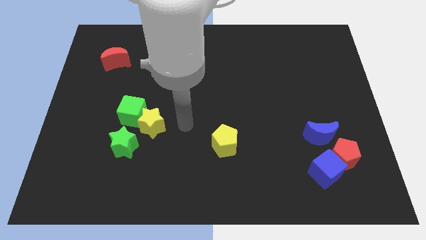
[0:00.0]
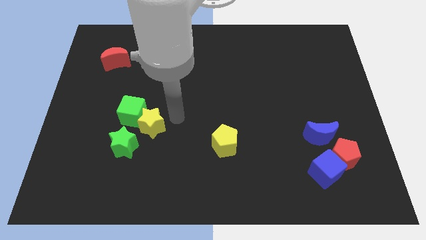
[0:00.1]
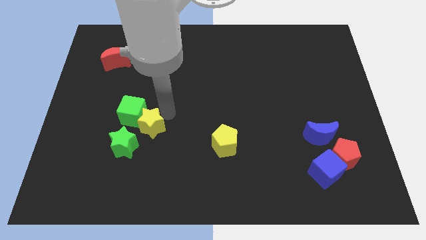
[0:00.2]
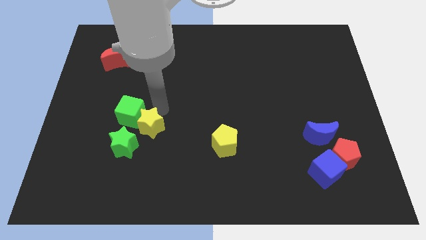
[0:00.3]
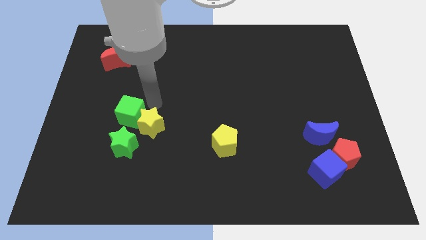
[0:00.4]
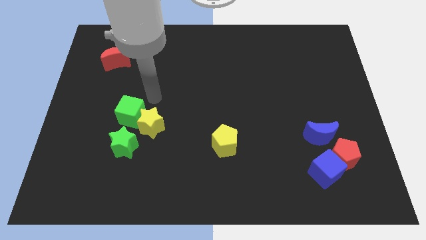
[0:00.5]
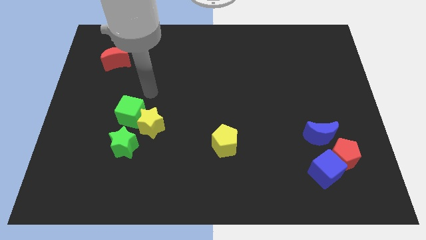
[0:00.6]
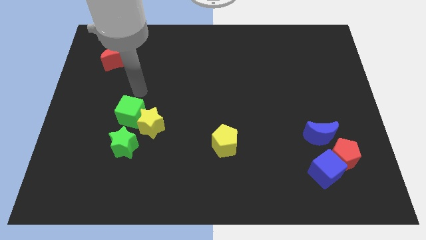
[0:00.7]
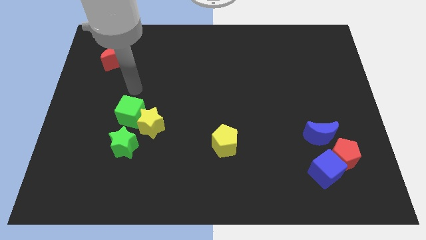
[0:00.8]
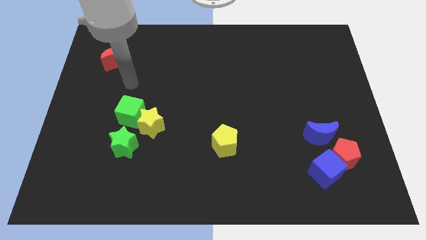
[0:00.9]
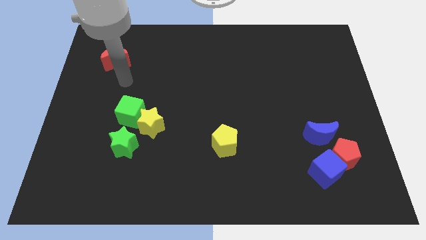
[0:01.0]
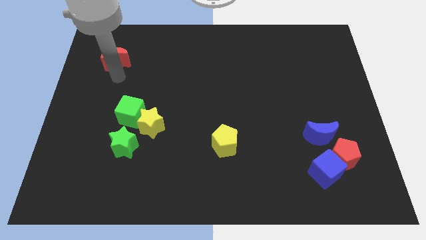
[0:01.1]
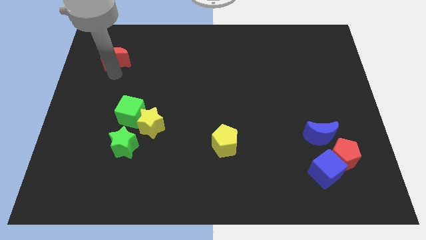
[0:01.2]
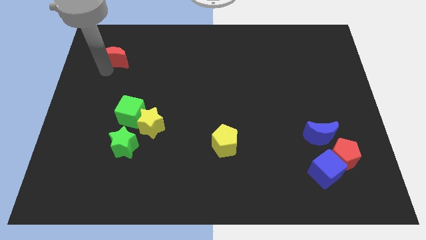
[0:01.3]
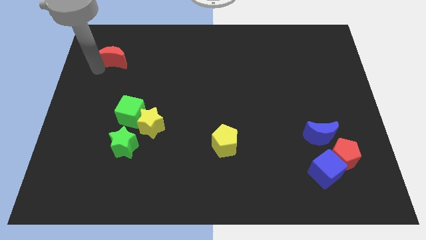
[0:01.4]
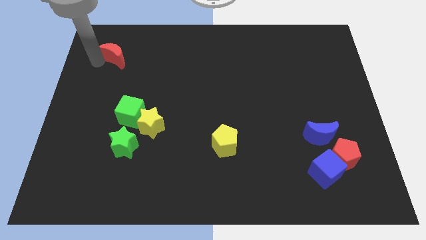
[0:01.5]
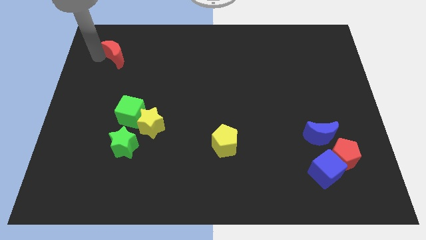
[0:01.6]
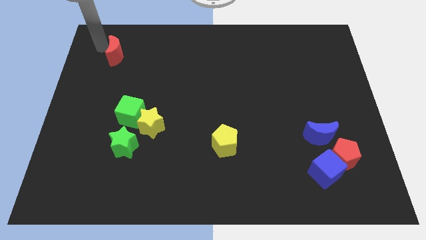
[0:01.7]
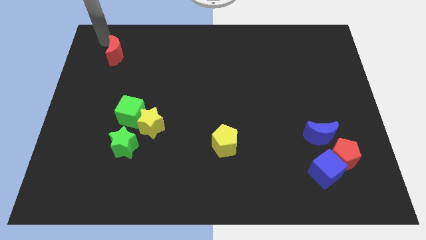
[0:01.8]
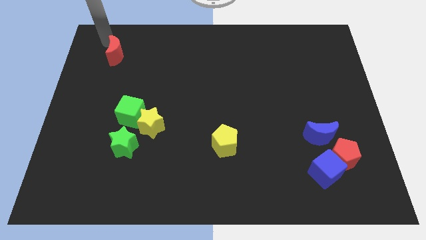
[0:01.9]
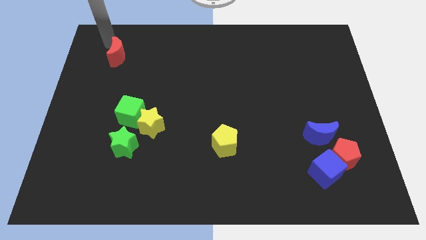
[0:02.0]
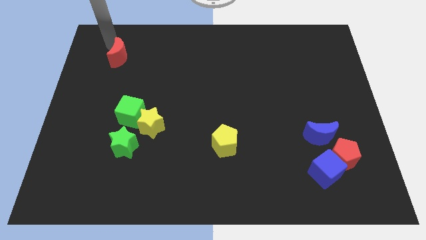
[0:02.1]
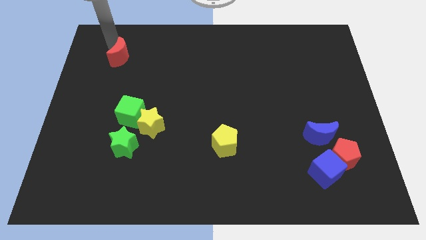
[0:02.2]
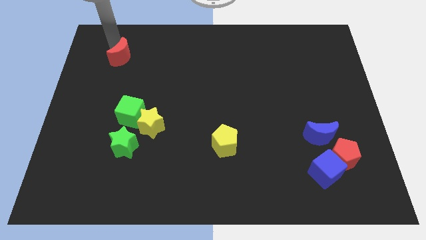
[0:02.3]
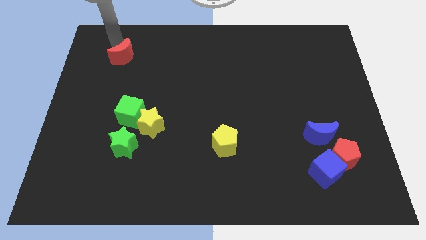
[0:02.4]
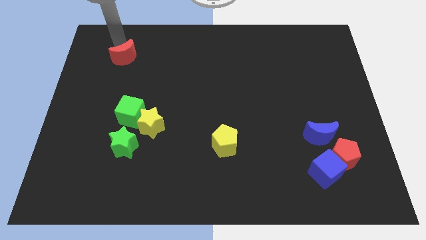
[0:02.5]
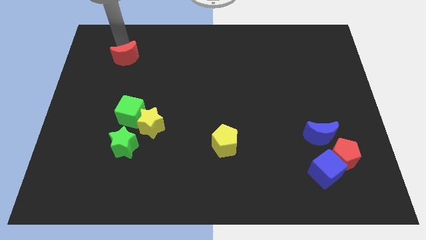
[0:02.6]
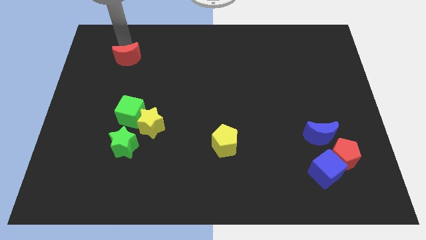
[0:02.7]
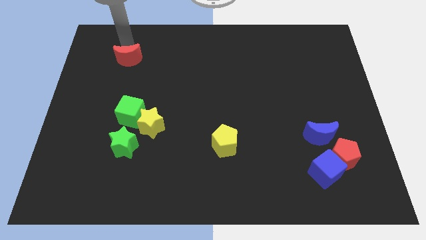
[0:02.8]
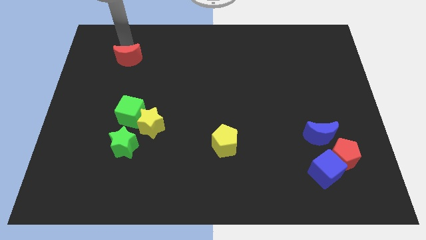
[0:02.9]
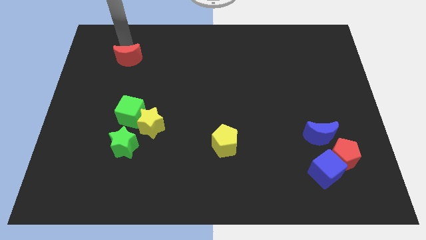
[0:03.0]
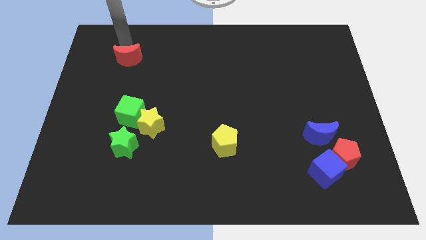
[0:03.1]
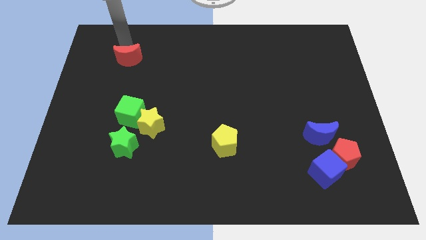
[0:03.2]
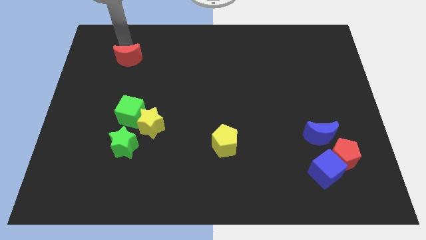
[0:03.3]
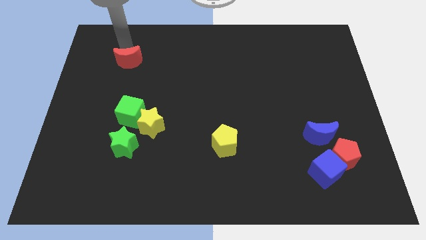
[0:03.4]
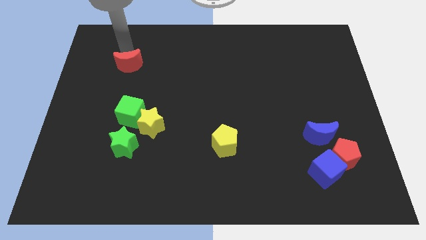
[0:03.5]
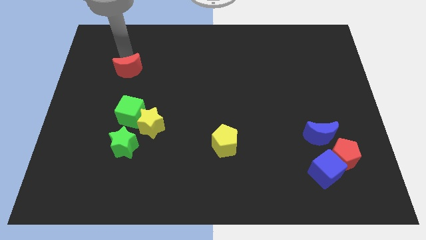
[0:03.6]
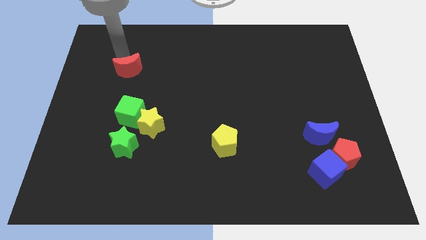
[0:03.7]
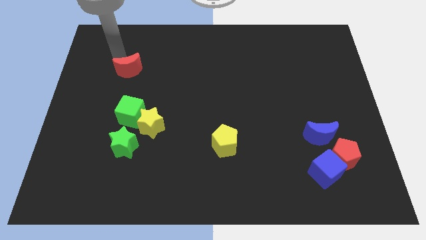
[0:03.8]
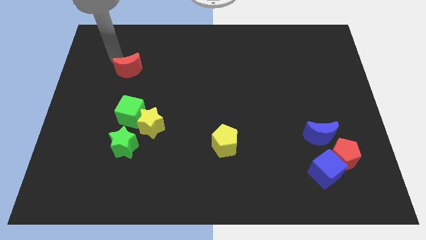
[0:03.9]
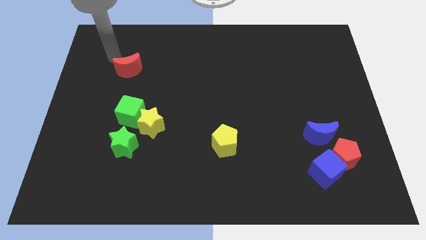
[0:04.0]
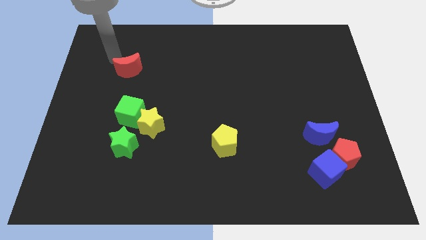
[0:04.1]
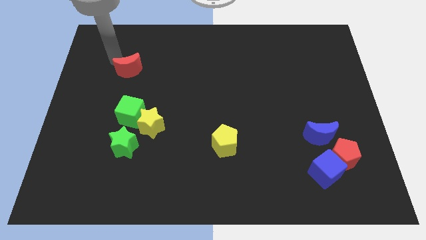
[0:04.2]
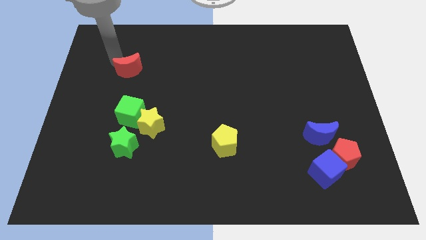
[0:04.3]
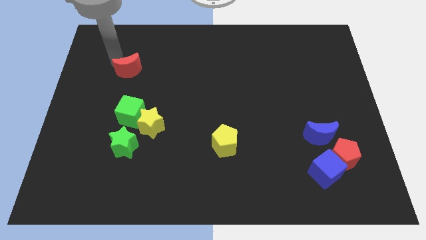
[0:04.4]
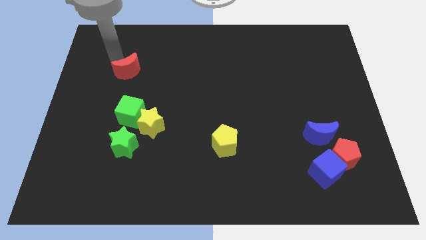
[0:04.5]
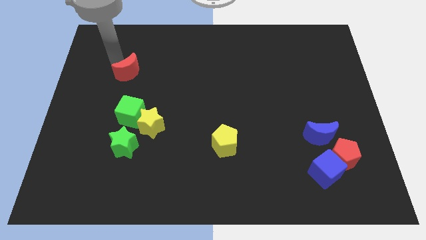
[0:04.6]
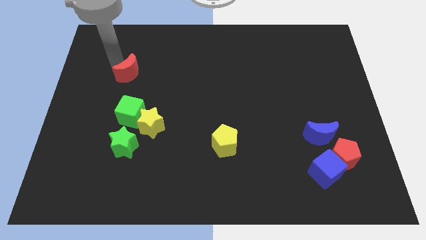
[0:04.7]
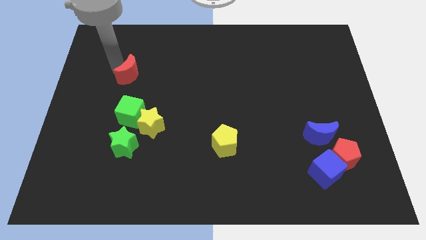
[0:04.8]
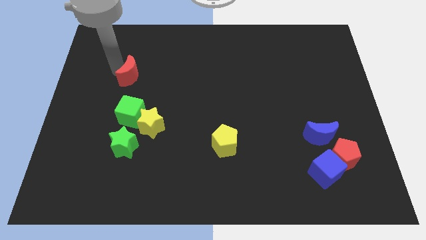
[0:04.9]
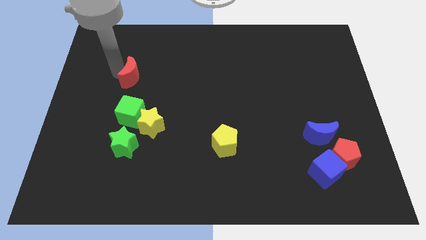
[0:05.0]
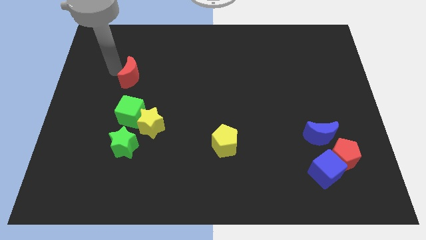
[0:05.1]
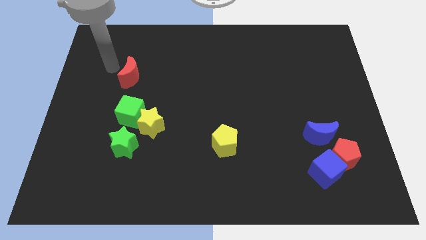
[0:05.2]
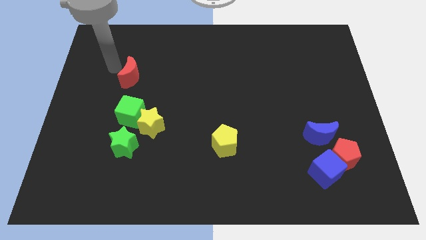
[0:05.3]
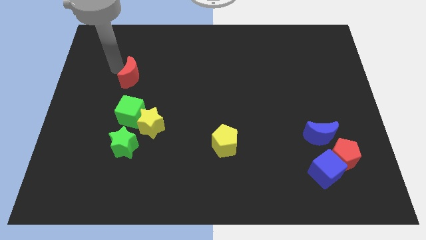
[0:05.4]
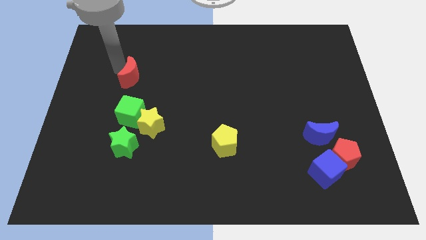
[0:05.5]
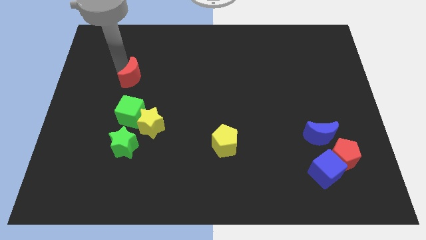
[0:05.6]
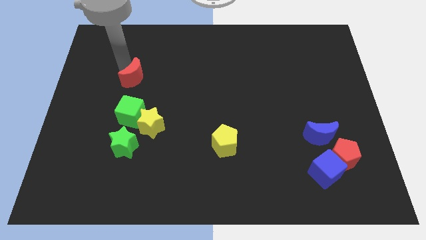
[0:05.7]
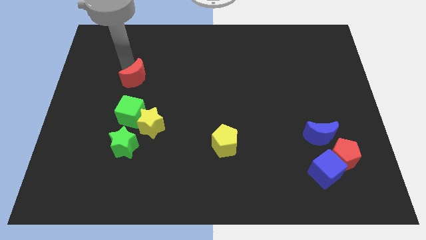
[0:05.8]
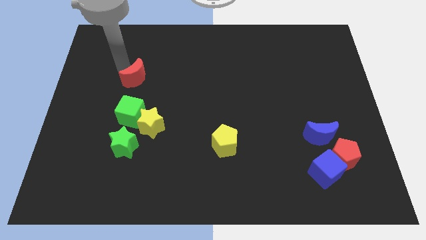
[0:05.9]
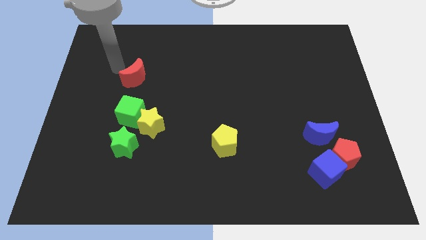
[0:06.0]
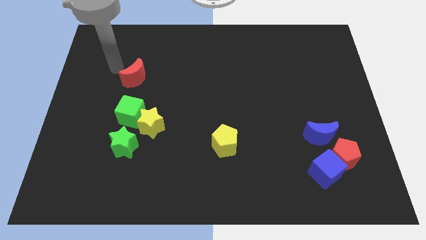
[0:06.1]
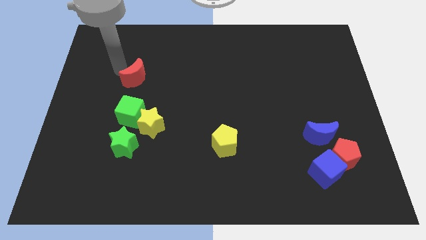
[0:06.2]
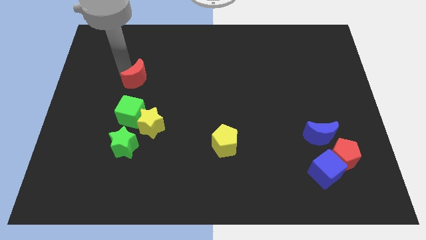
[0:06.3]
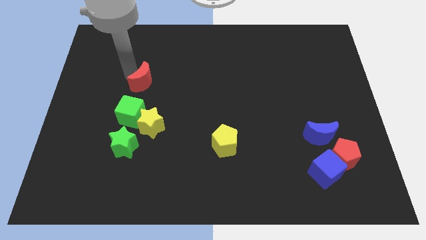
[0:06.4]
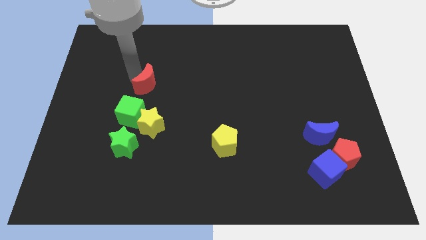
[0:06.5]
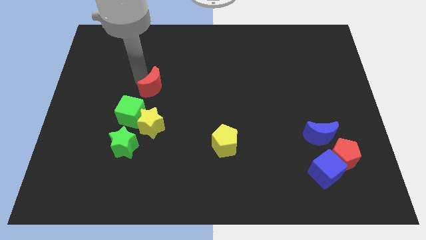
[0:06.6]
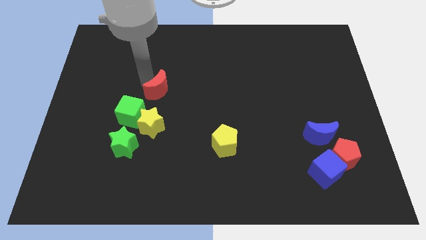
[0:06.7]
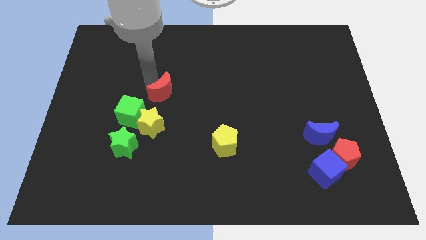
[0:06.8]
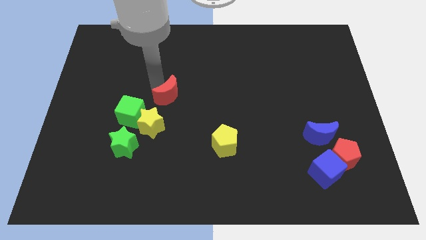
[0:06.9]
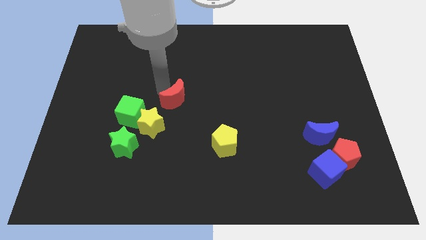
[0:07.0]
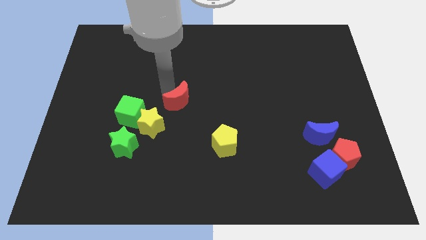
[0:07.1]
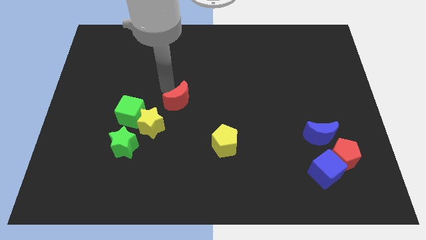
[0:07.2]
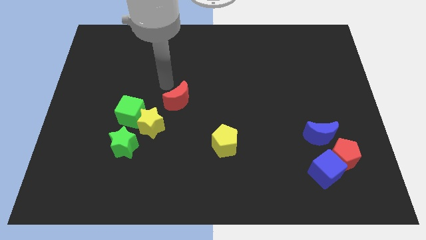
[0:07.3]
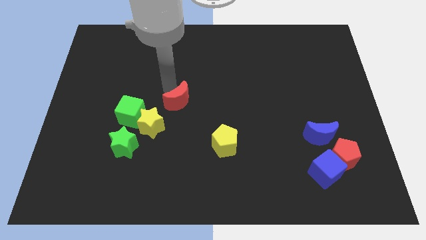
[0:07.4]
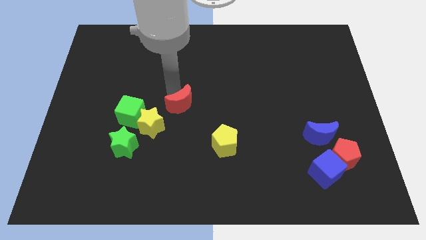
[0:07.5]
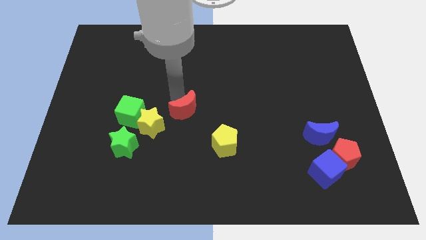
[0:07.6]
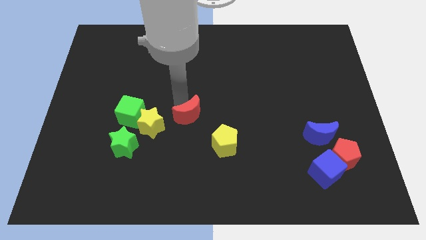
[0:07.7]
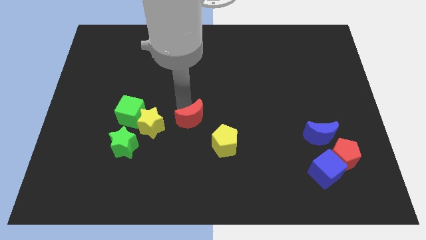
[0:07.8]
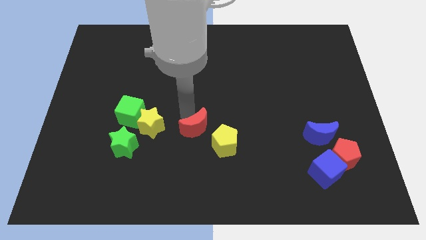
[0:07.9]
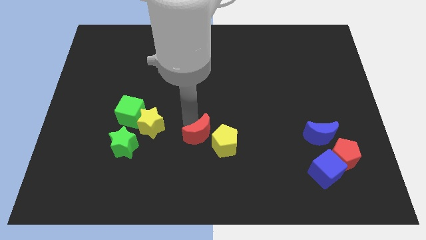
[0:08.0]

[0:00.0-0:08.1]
slide the red moon close to the yellow pentagon
